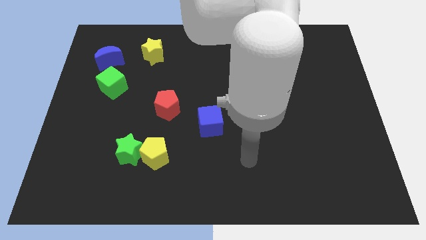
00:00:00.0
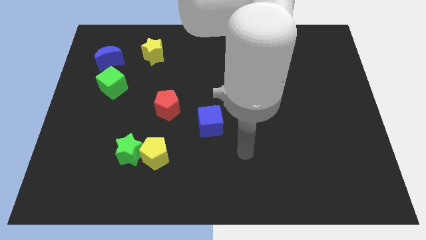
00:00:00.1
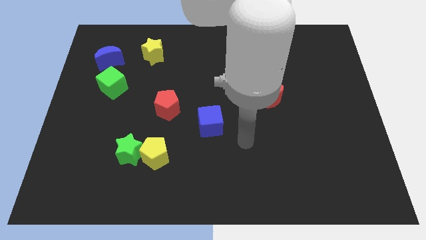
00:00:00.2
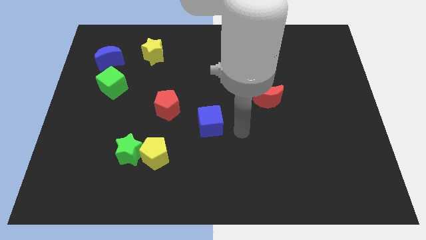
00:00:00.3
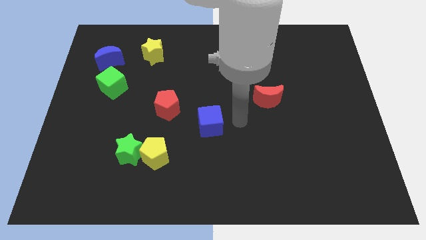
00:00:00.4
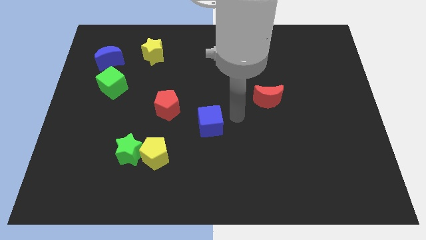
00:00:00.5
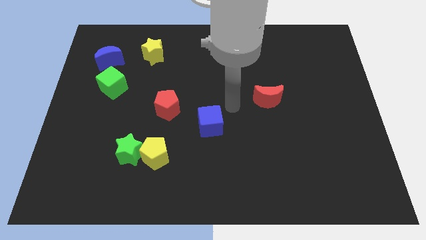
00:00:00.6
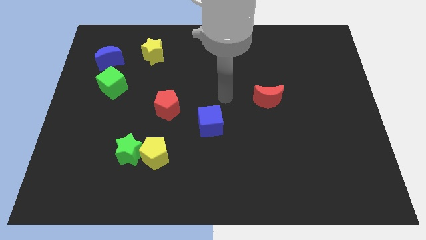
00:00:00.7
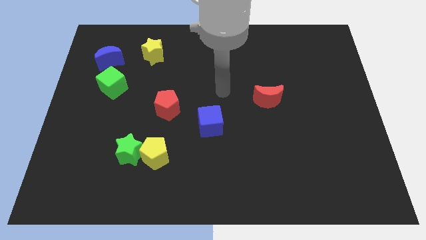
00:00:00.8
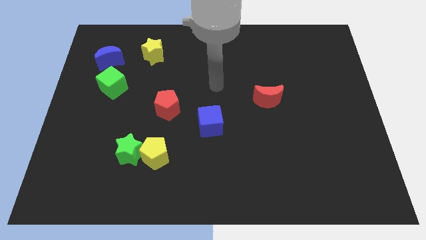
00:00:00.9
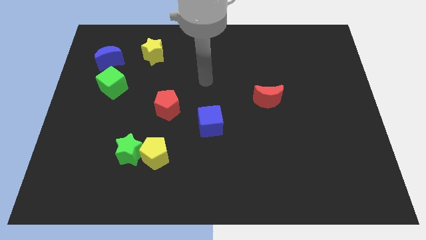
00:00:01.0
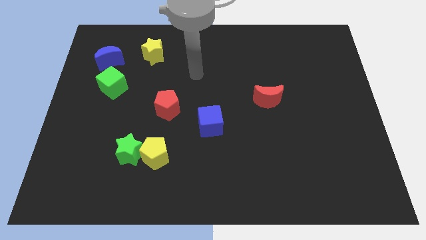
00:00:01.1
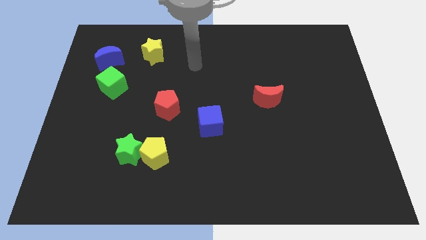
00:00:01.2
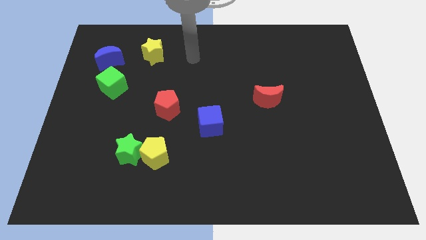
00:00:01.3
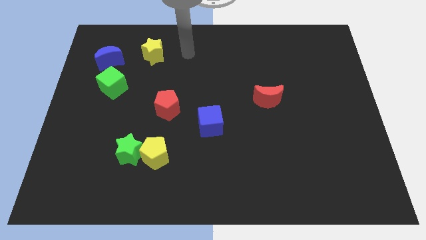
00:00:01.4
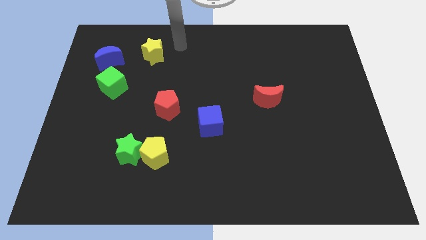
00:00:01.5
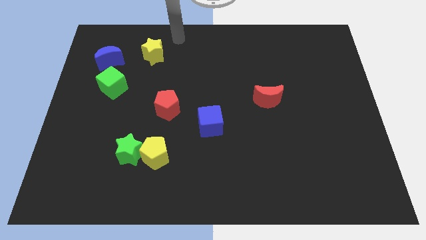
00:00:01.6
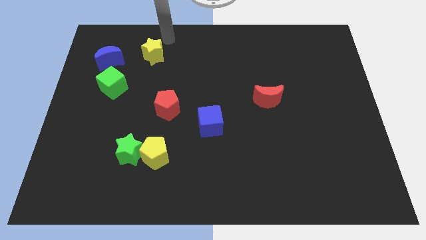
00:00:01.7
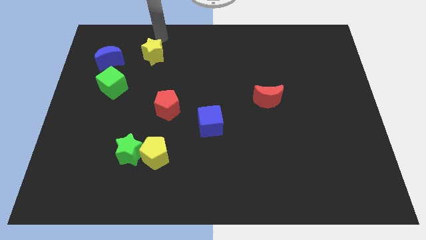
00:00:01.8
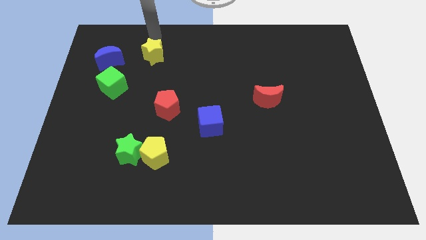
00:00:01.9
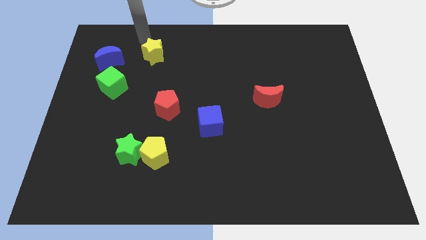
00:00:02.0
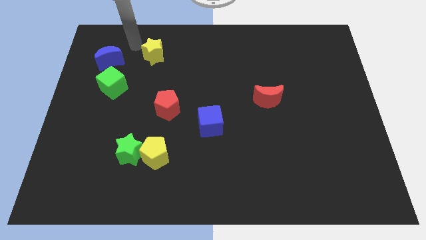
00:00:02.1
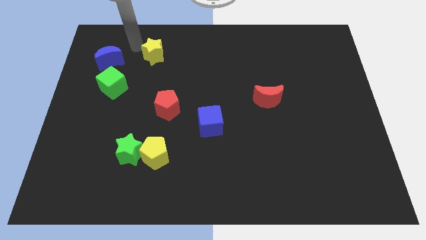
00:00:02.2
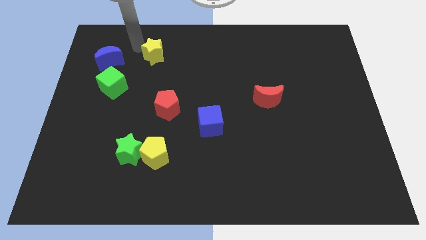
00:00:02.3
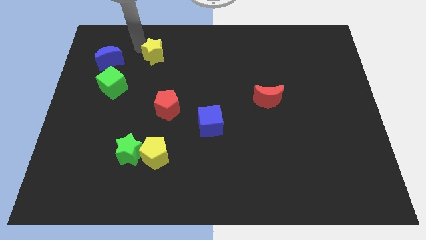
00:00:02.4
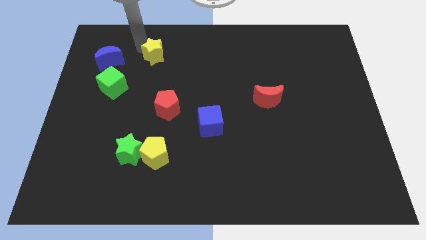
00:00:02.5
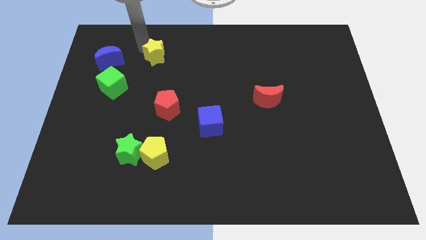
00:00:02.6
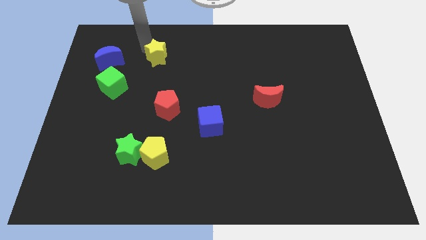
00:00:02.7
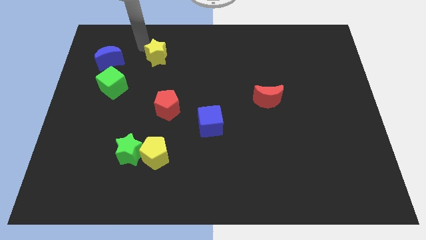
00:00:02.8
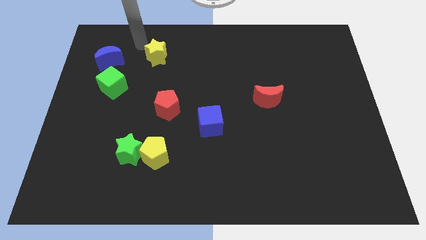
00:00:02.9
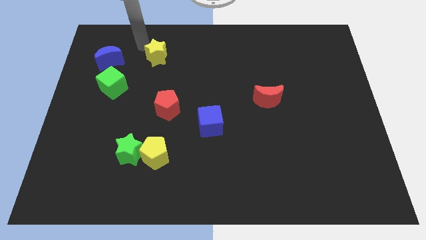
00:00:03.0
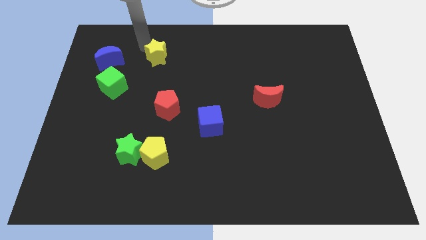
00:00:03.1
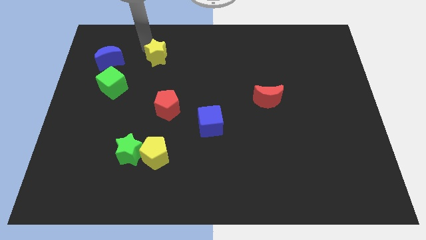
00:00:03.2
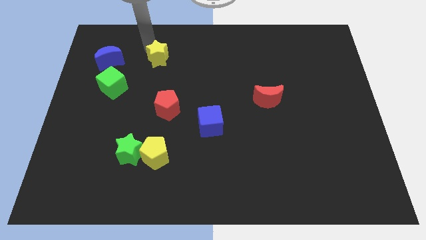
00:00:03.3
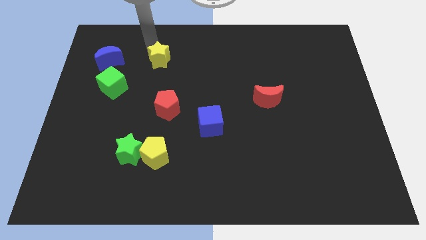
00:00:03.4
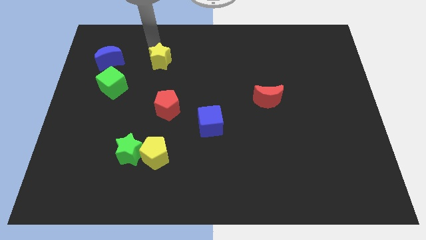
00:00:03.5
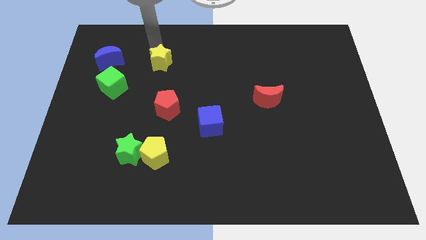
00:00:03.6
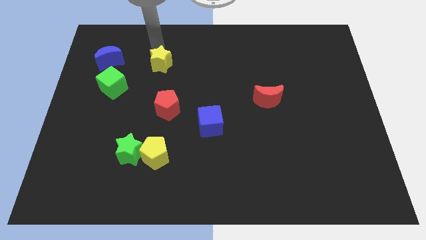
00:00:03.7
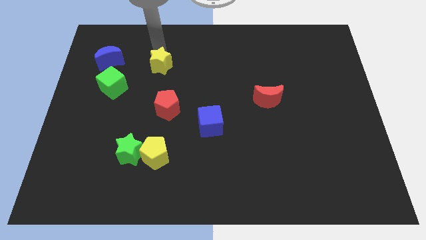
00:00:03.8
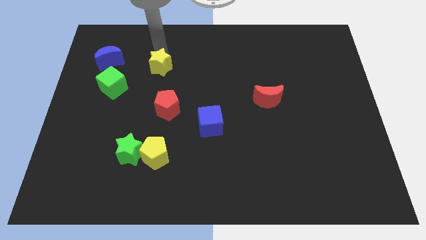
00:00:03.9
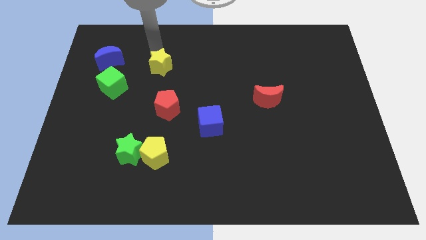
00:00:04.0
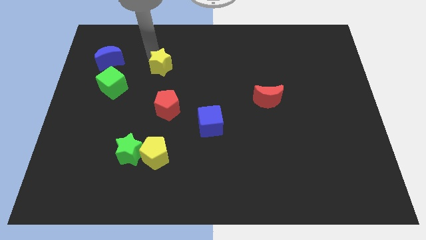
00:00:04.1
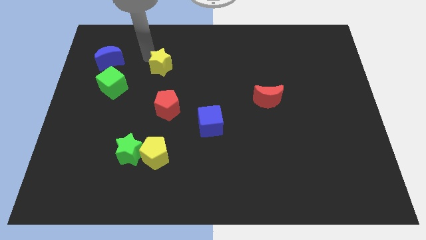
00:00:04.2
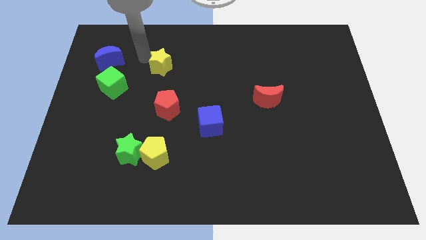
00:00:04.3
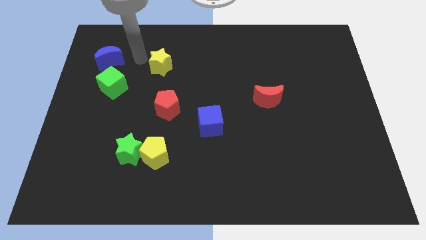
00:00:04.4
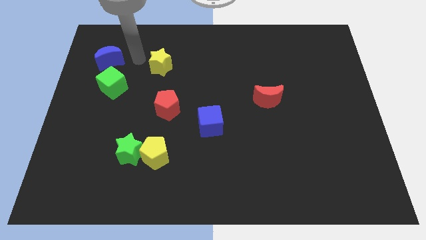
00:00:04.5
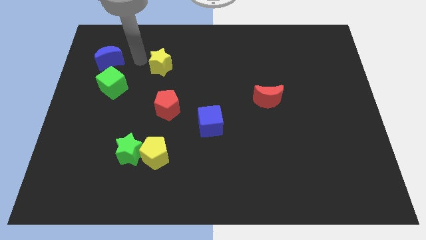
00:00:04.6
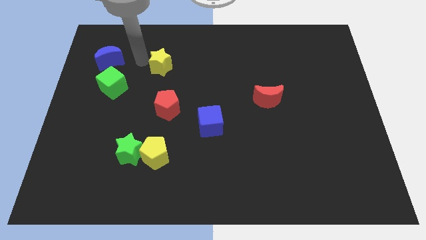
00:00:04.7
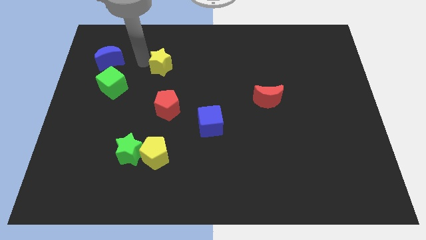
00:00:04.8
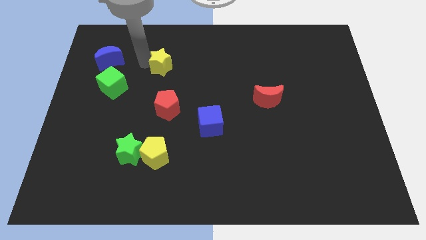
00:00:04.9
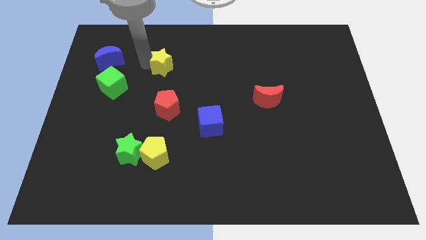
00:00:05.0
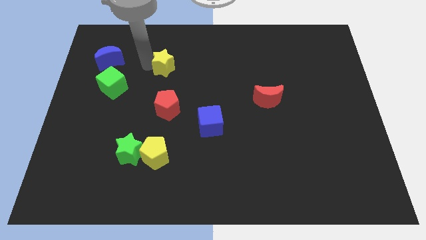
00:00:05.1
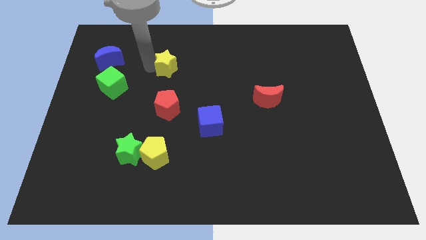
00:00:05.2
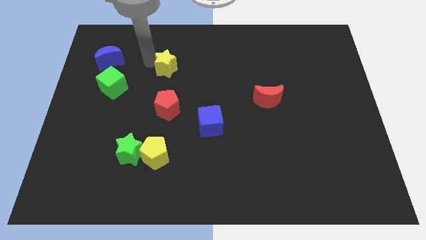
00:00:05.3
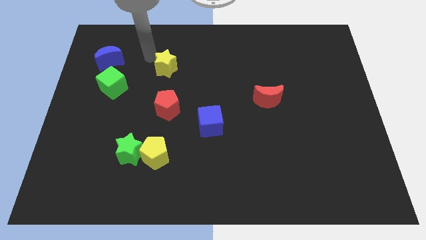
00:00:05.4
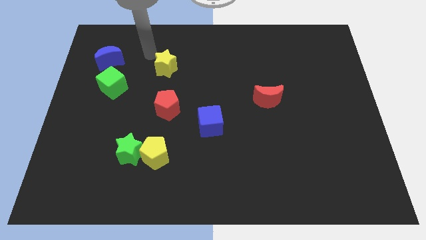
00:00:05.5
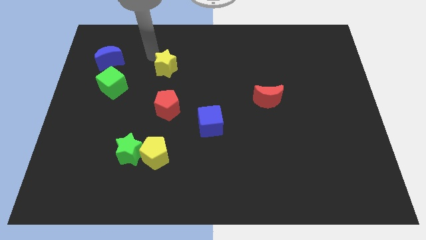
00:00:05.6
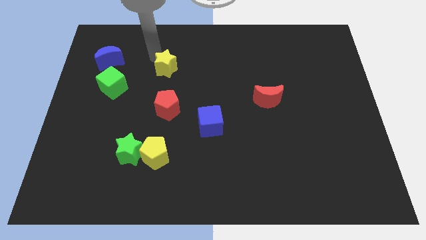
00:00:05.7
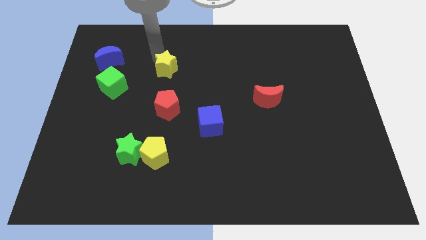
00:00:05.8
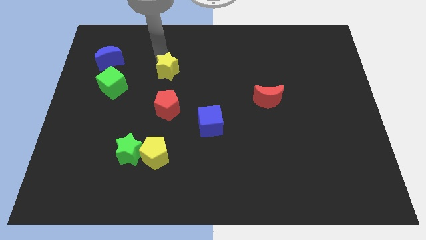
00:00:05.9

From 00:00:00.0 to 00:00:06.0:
slightly slide the yellow star down and then to the right

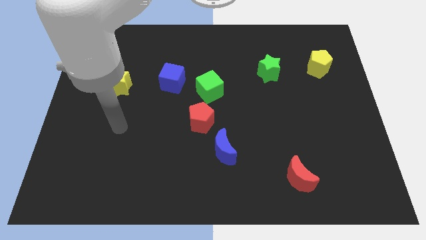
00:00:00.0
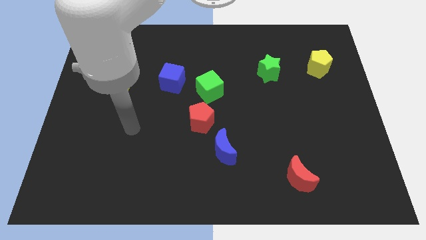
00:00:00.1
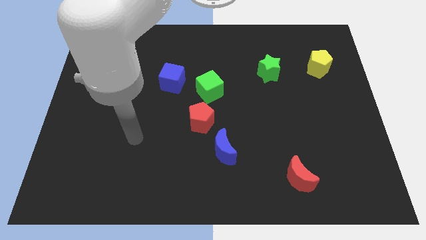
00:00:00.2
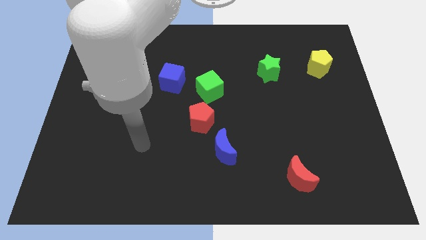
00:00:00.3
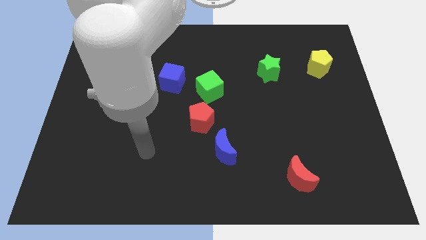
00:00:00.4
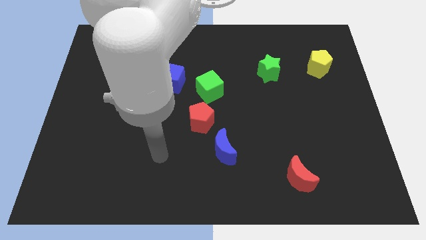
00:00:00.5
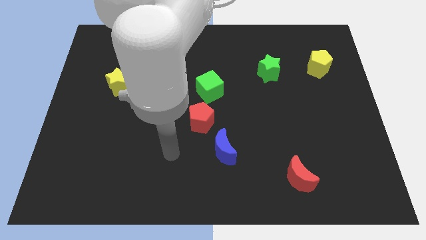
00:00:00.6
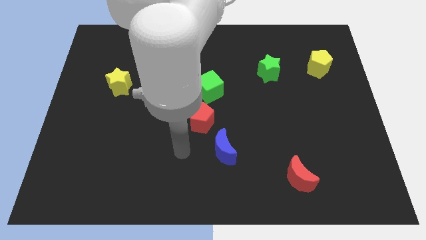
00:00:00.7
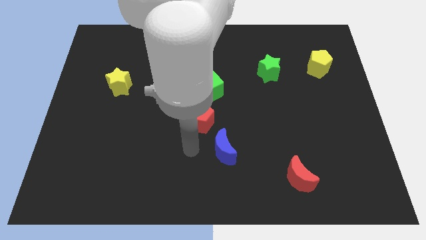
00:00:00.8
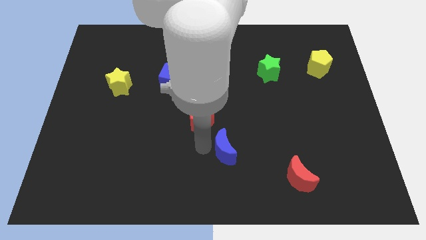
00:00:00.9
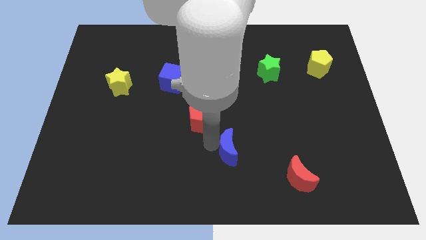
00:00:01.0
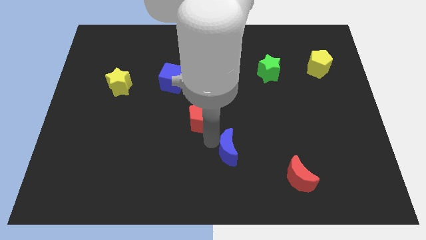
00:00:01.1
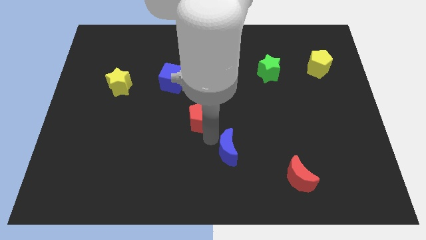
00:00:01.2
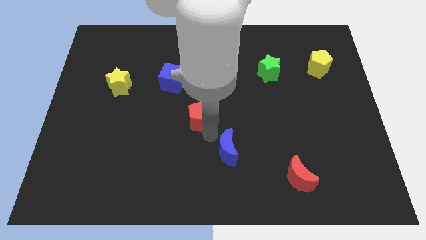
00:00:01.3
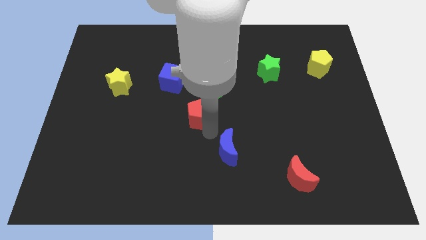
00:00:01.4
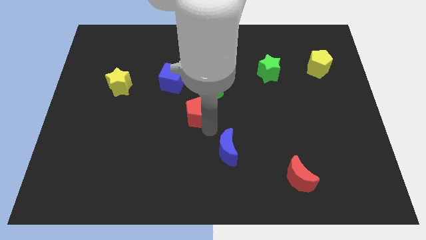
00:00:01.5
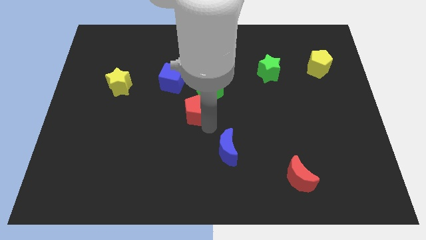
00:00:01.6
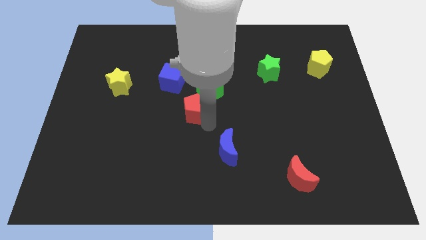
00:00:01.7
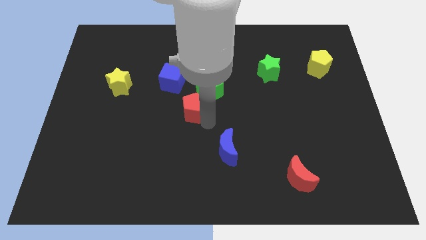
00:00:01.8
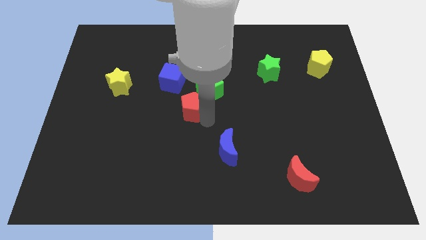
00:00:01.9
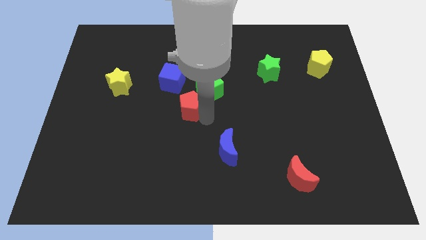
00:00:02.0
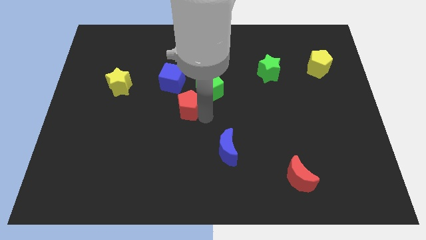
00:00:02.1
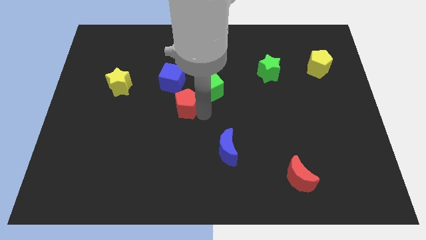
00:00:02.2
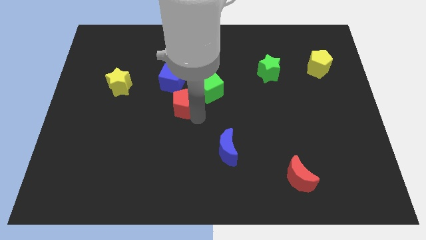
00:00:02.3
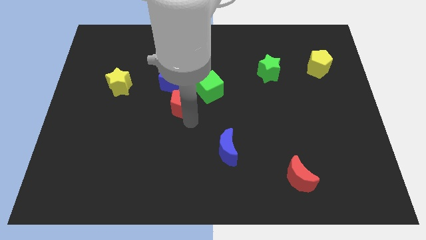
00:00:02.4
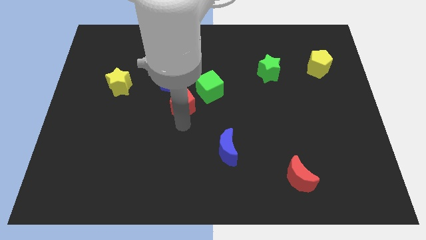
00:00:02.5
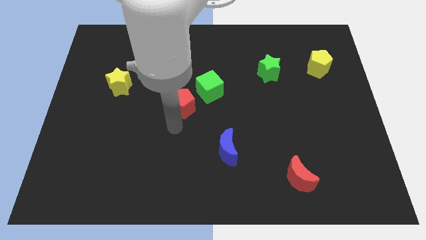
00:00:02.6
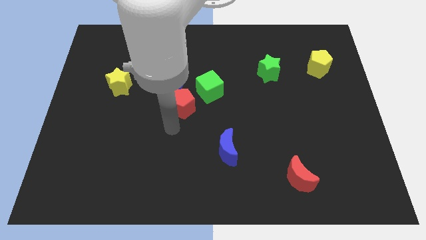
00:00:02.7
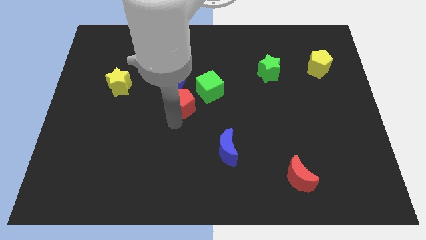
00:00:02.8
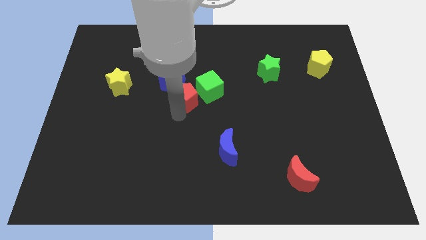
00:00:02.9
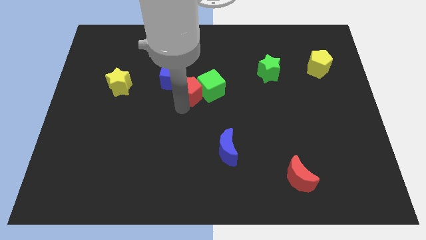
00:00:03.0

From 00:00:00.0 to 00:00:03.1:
slightly slide the red pentagon upwards
